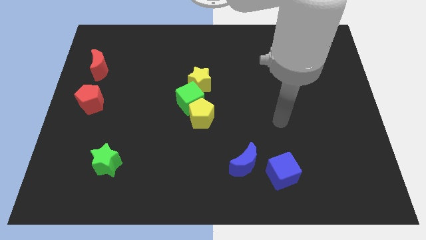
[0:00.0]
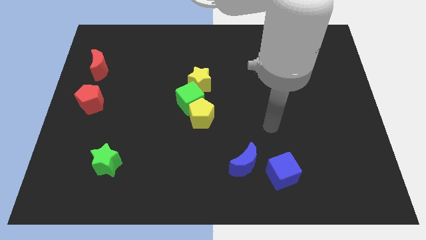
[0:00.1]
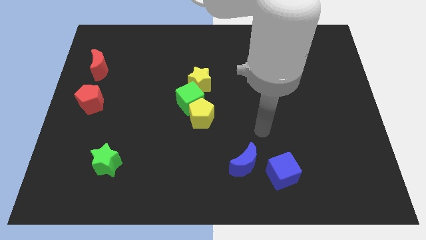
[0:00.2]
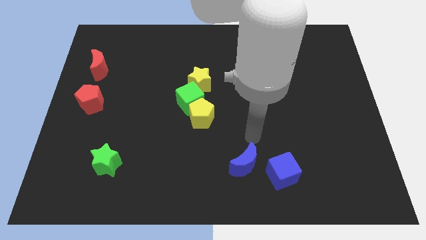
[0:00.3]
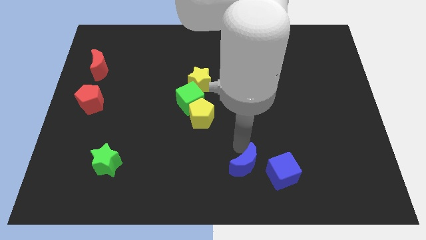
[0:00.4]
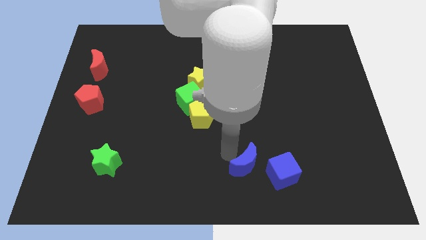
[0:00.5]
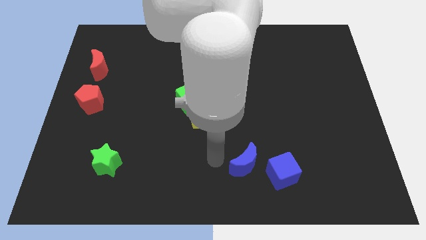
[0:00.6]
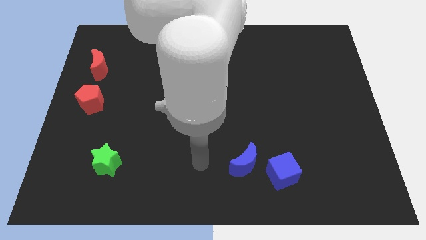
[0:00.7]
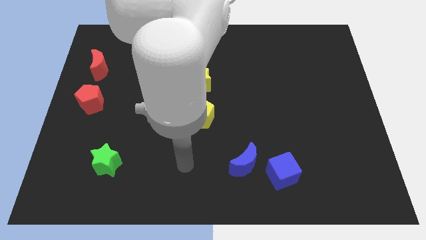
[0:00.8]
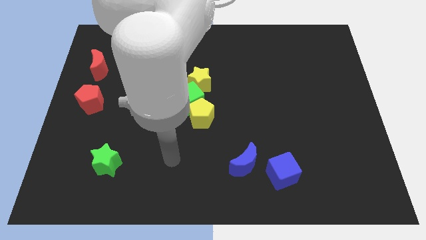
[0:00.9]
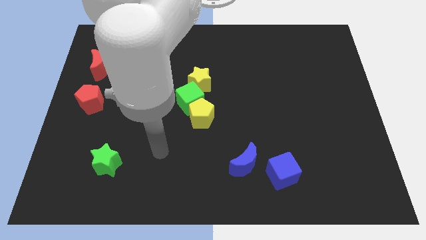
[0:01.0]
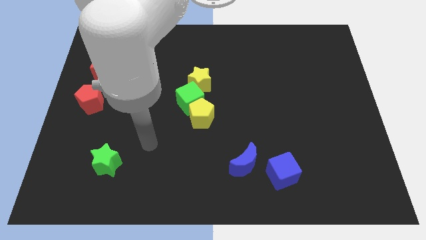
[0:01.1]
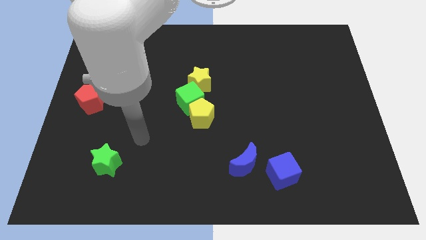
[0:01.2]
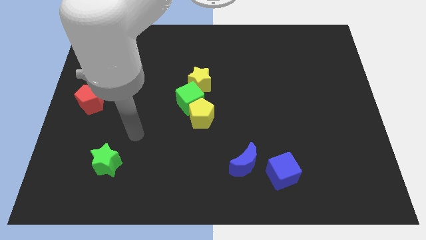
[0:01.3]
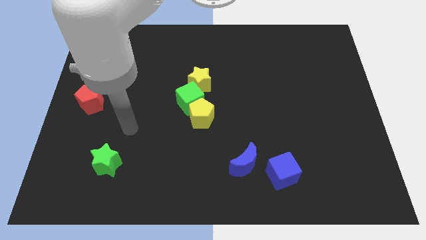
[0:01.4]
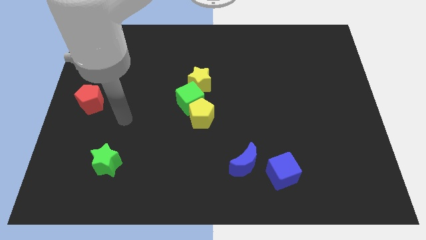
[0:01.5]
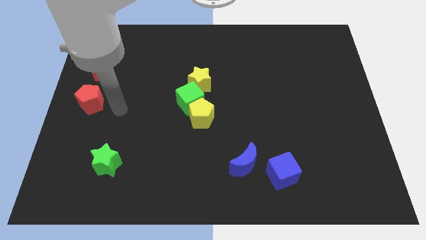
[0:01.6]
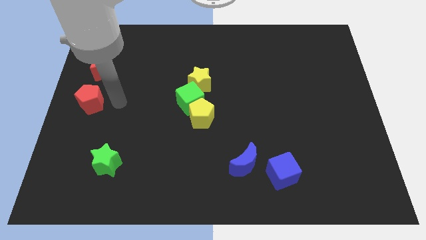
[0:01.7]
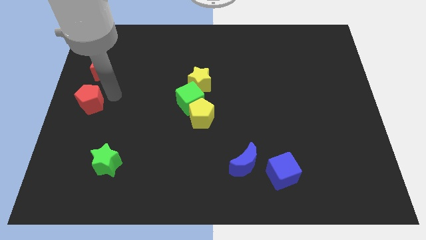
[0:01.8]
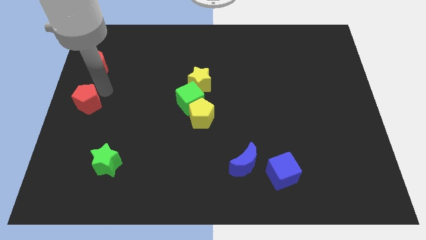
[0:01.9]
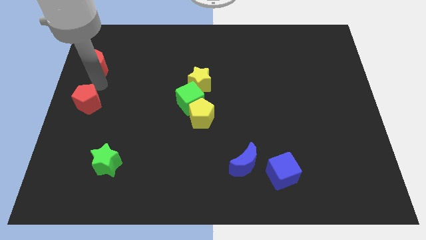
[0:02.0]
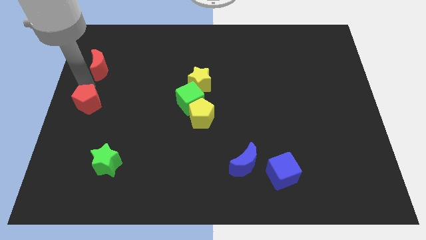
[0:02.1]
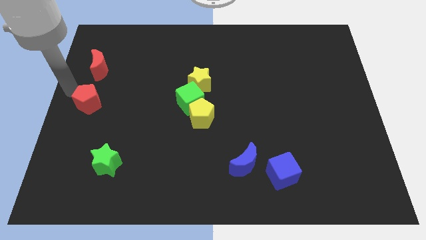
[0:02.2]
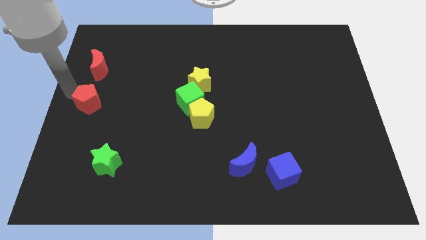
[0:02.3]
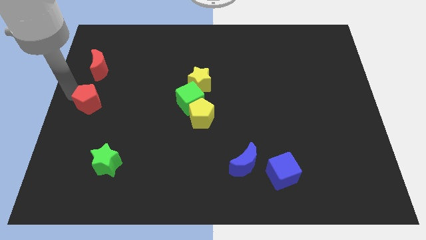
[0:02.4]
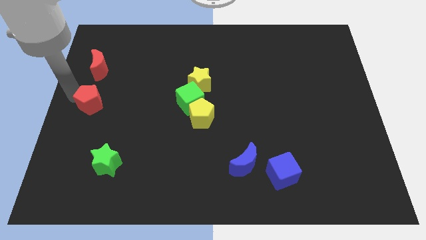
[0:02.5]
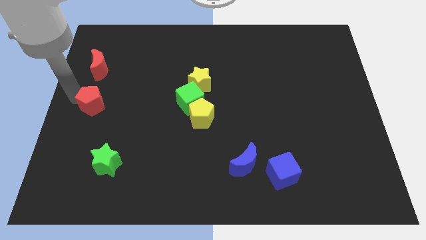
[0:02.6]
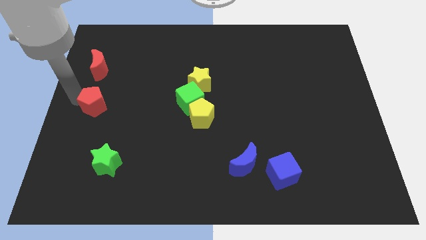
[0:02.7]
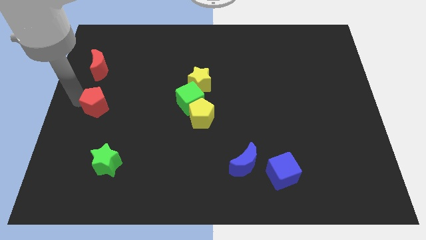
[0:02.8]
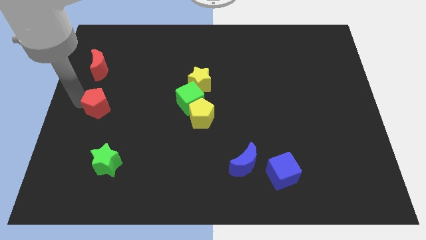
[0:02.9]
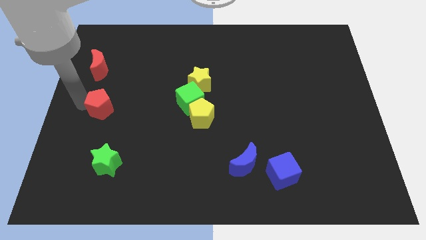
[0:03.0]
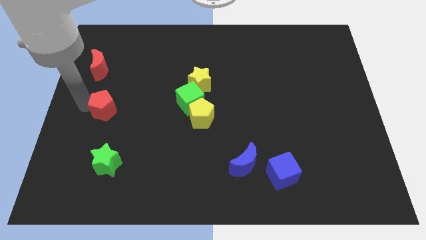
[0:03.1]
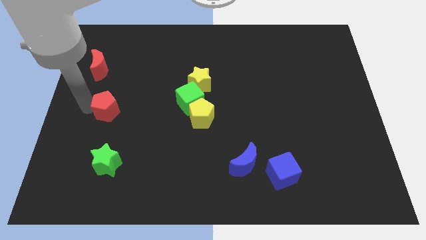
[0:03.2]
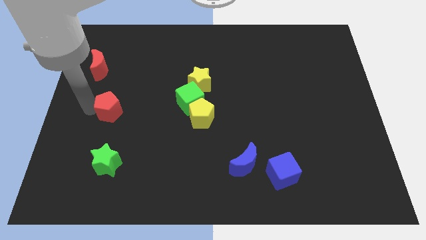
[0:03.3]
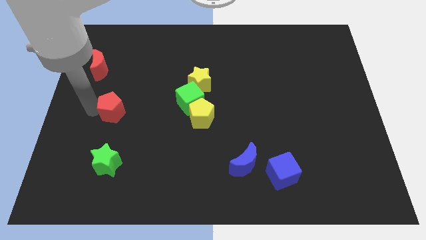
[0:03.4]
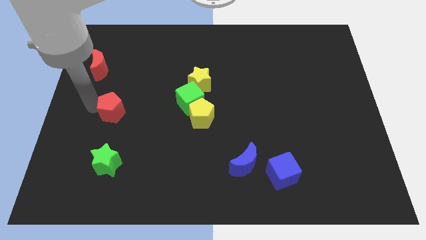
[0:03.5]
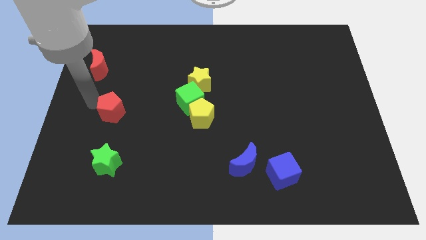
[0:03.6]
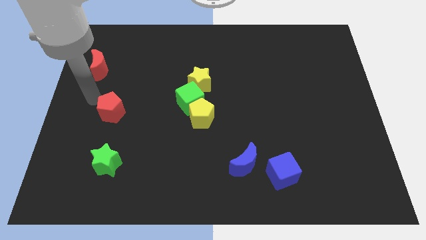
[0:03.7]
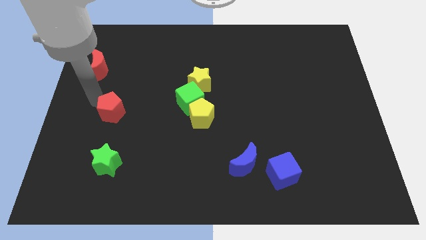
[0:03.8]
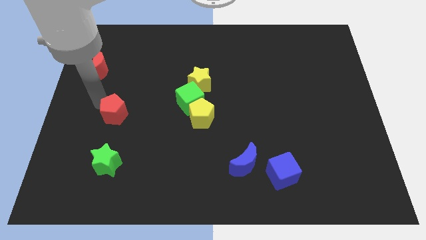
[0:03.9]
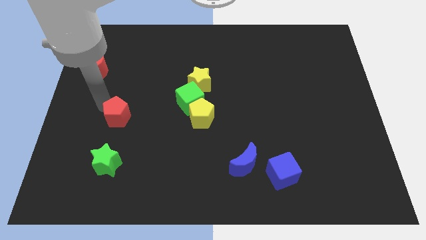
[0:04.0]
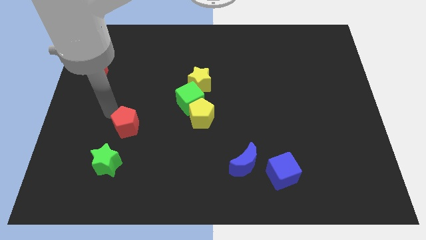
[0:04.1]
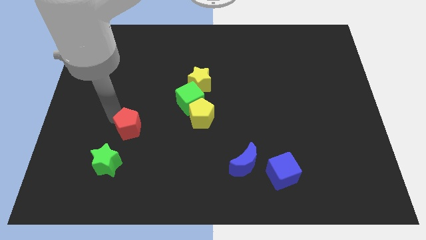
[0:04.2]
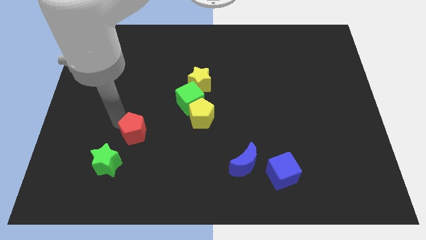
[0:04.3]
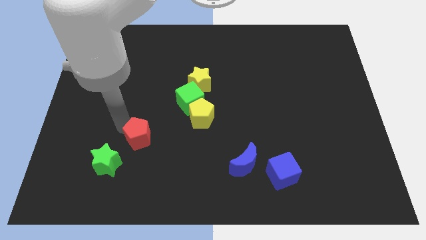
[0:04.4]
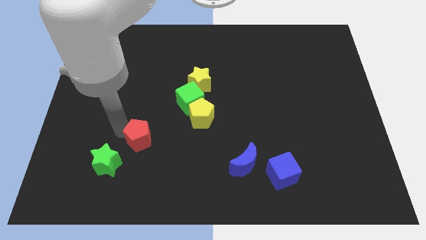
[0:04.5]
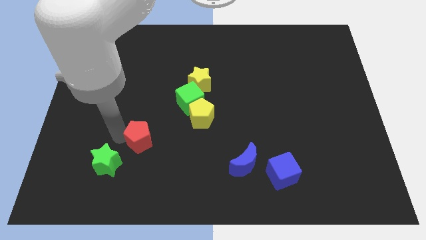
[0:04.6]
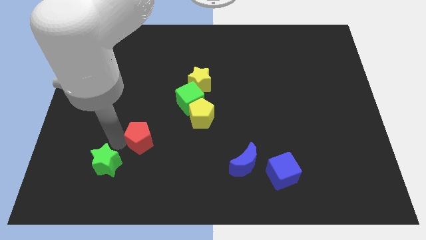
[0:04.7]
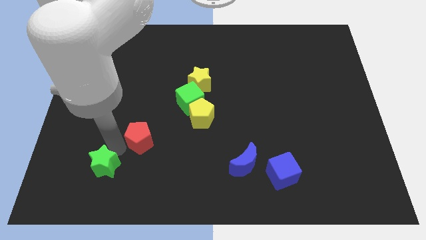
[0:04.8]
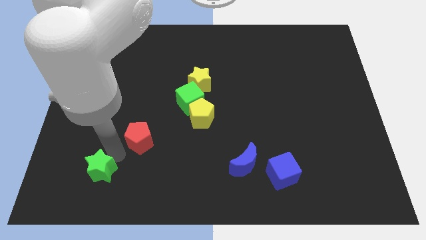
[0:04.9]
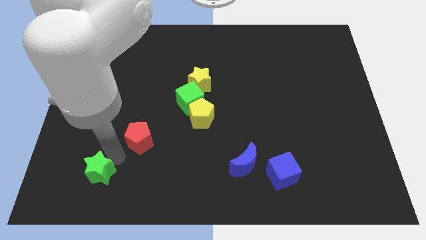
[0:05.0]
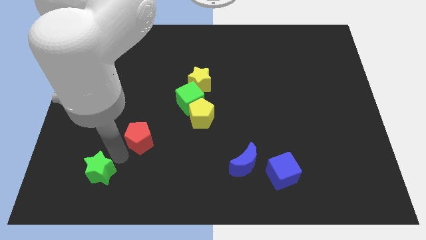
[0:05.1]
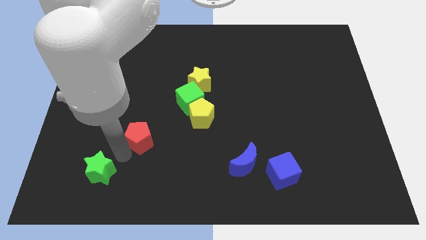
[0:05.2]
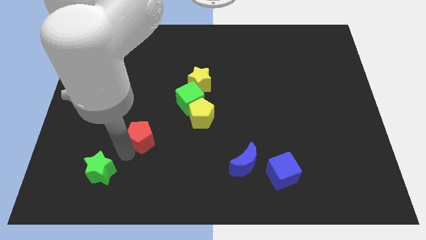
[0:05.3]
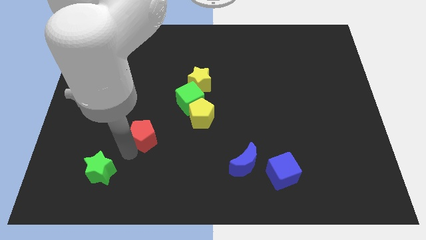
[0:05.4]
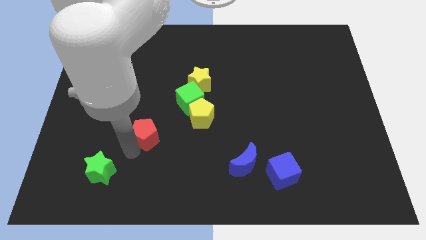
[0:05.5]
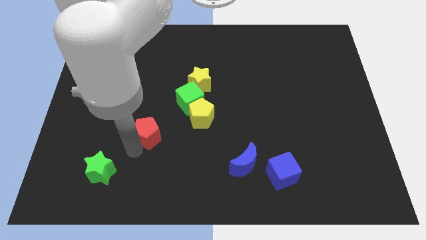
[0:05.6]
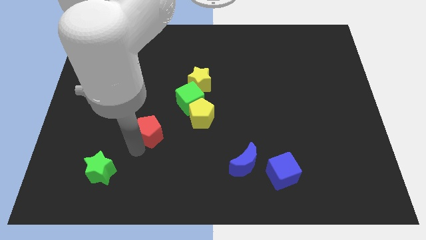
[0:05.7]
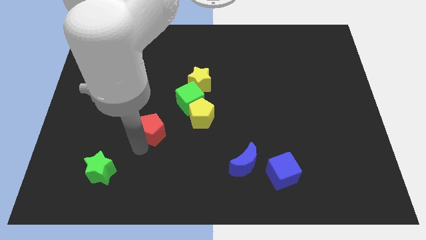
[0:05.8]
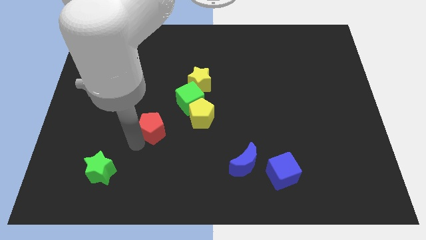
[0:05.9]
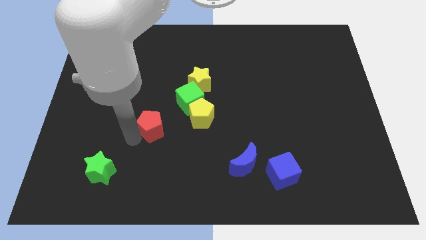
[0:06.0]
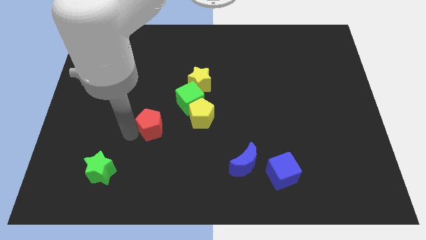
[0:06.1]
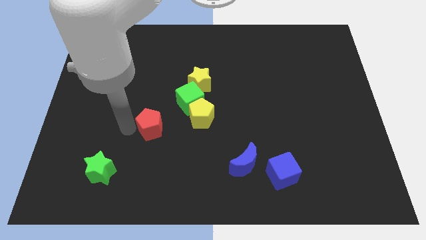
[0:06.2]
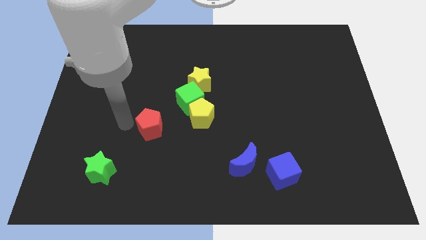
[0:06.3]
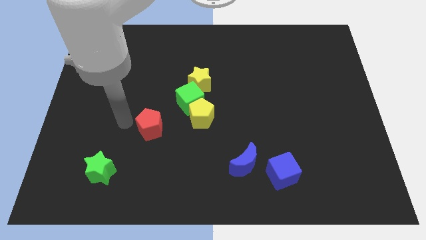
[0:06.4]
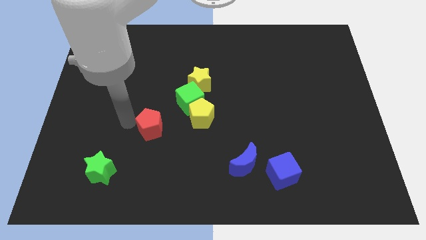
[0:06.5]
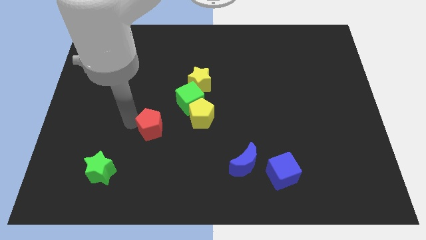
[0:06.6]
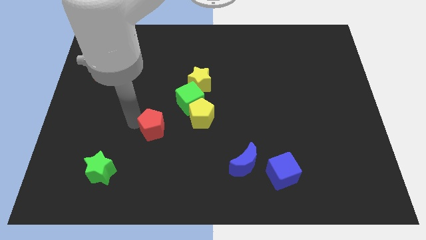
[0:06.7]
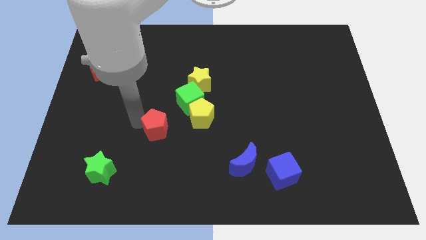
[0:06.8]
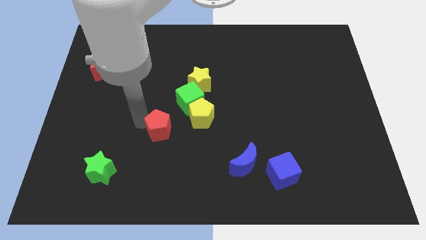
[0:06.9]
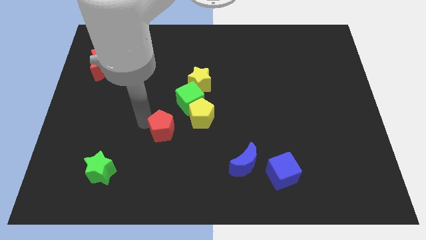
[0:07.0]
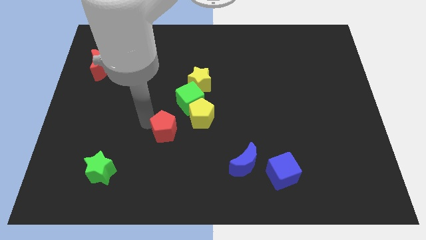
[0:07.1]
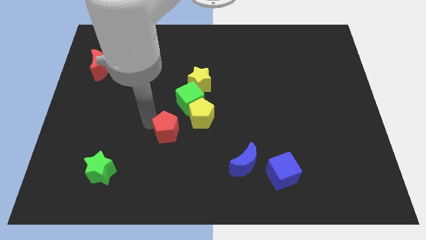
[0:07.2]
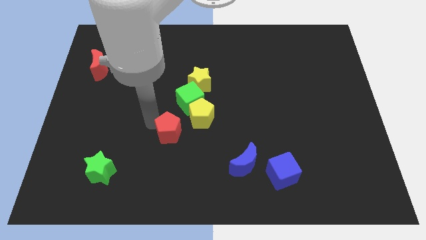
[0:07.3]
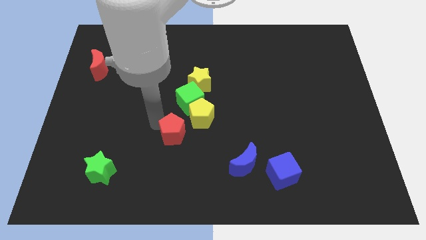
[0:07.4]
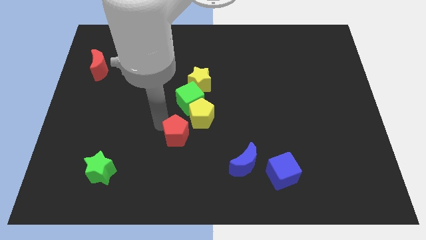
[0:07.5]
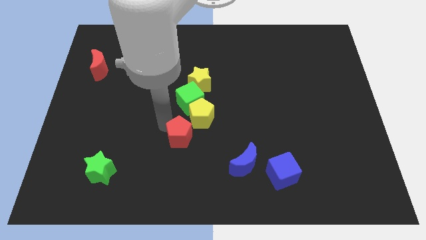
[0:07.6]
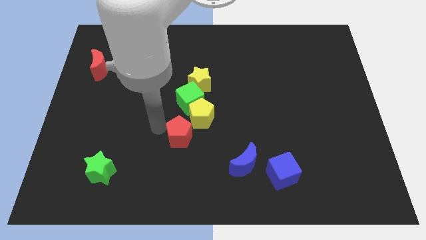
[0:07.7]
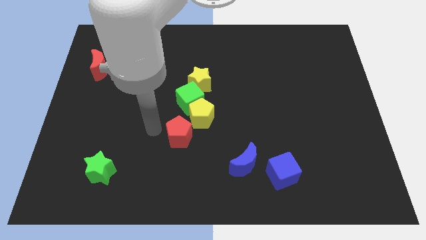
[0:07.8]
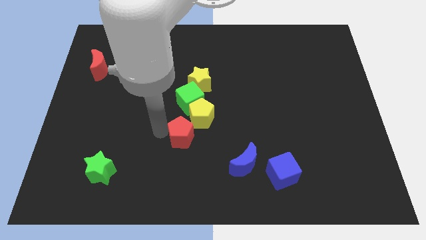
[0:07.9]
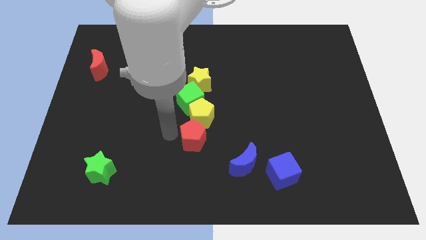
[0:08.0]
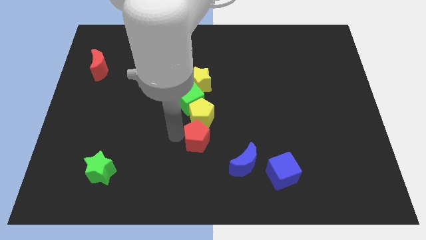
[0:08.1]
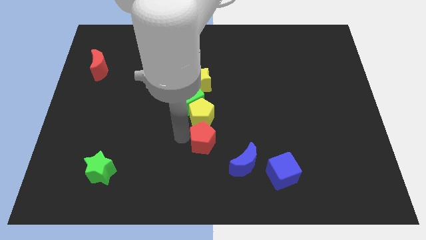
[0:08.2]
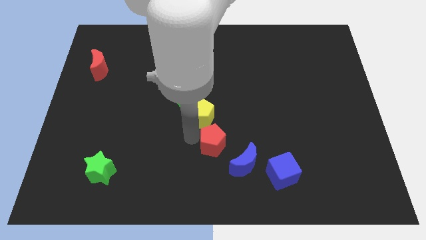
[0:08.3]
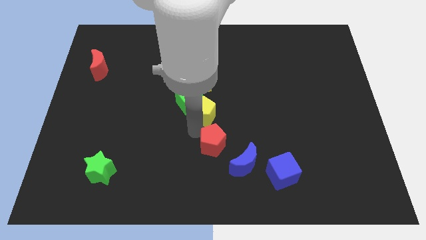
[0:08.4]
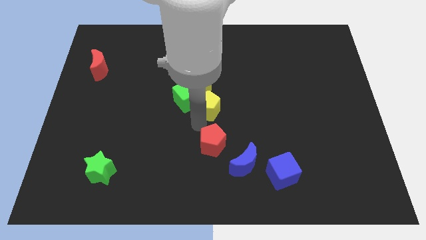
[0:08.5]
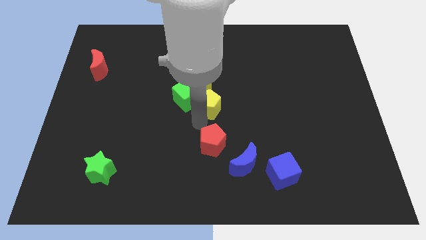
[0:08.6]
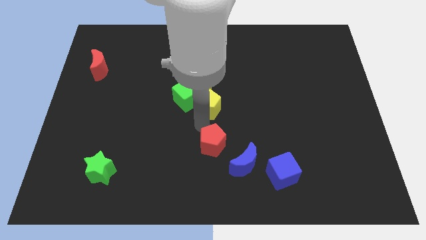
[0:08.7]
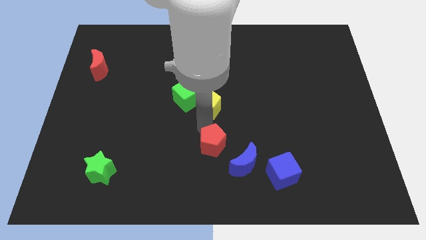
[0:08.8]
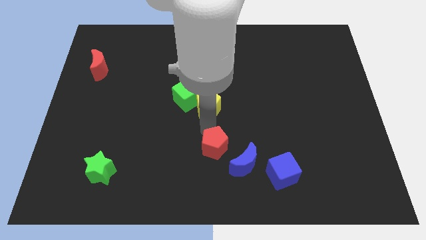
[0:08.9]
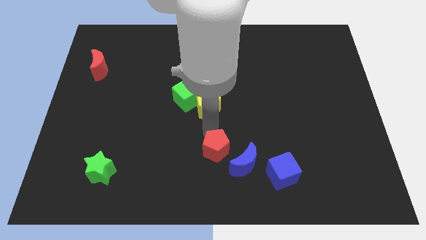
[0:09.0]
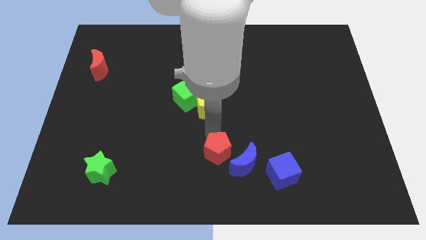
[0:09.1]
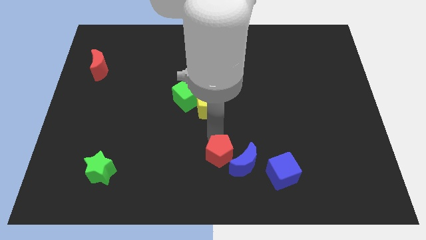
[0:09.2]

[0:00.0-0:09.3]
slide the red pentagon just left of the blue cube
